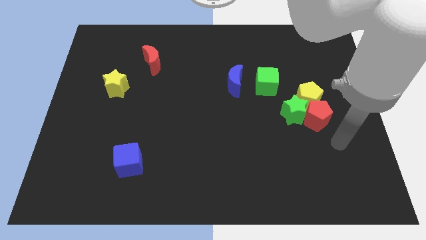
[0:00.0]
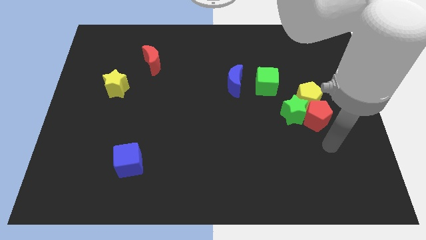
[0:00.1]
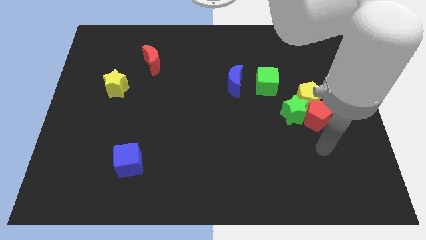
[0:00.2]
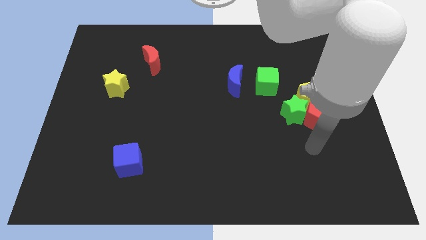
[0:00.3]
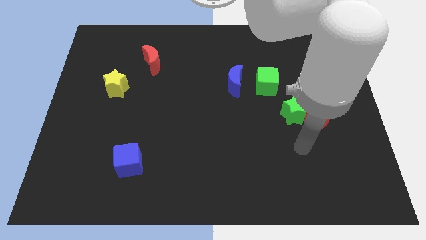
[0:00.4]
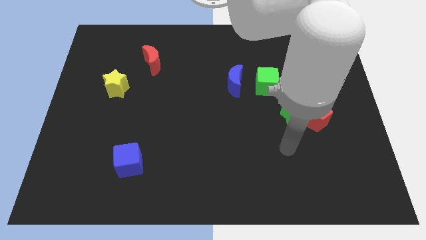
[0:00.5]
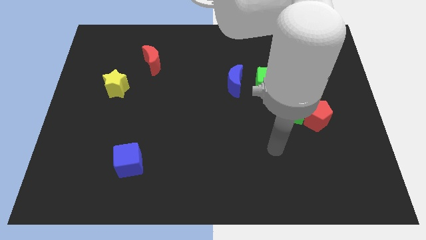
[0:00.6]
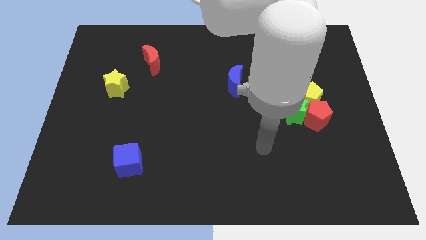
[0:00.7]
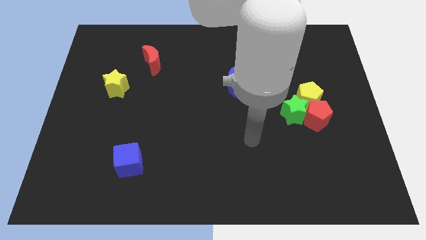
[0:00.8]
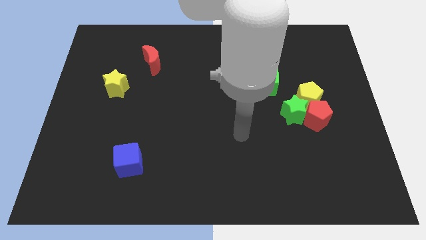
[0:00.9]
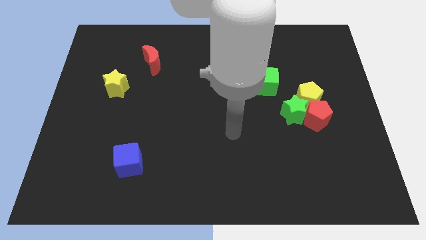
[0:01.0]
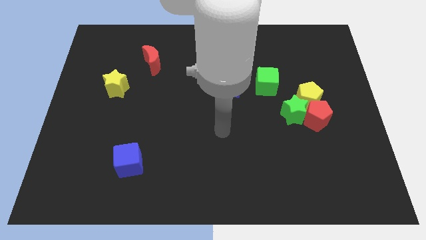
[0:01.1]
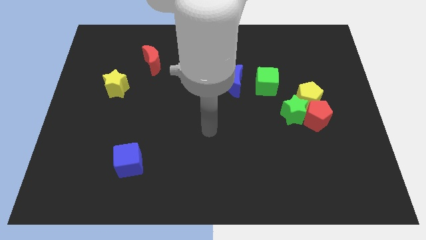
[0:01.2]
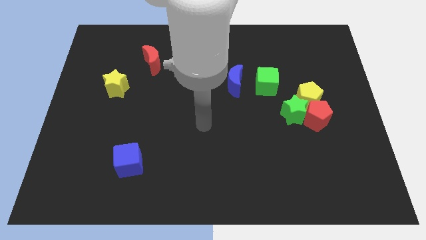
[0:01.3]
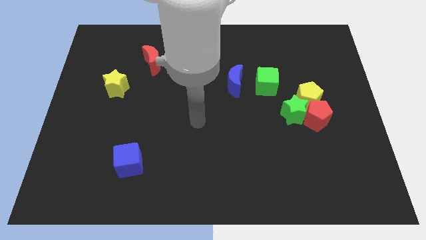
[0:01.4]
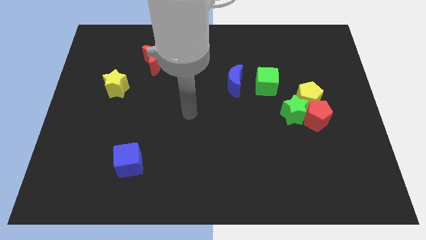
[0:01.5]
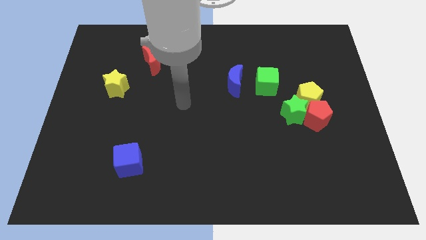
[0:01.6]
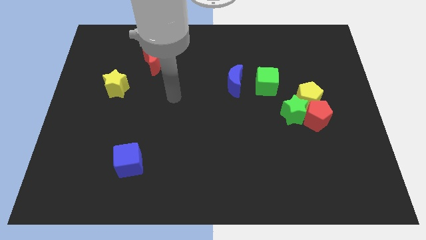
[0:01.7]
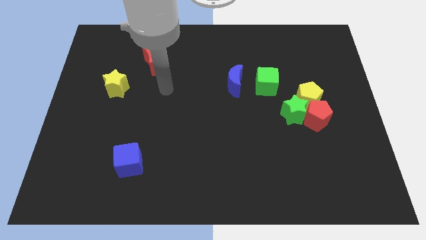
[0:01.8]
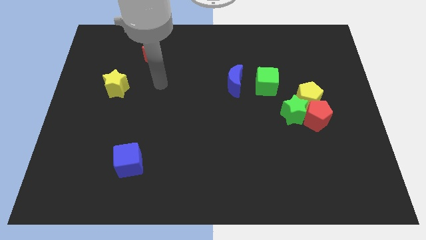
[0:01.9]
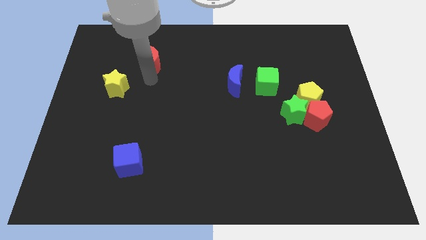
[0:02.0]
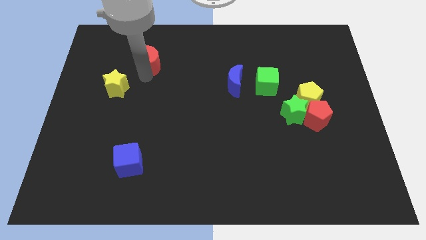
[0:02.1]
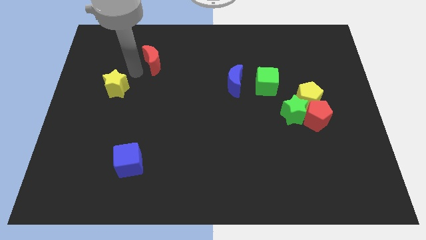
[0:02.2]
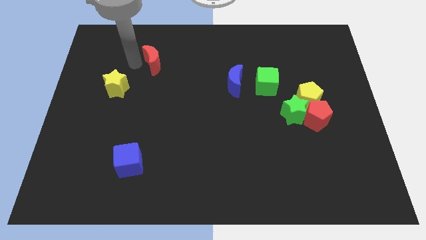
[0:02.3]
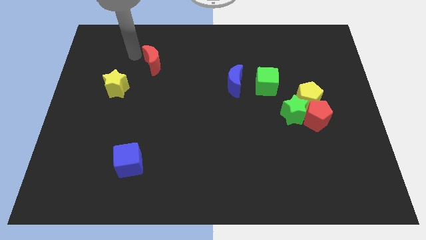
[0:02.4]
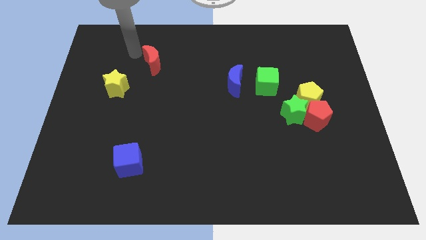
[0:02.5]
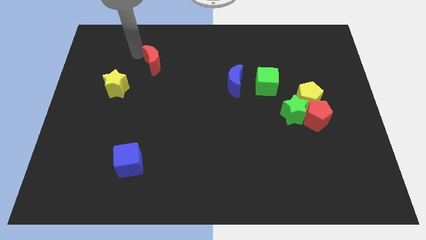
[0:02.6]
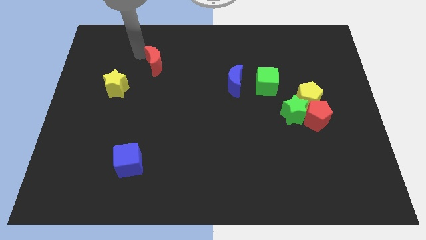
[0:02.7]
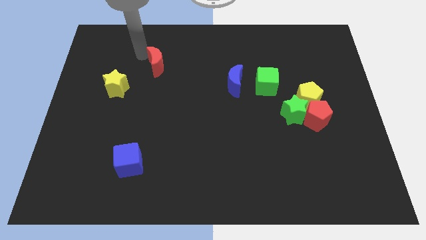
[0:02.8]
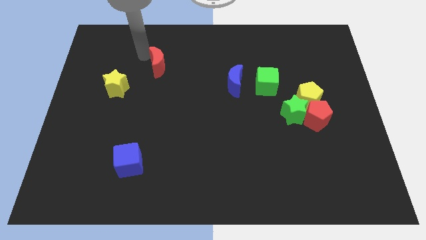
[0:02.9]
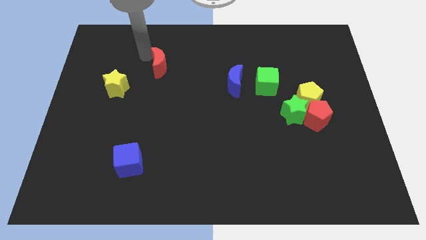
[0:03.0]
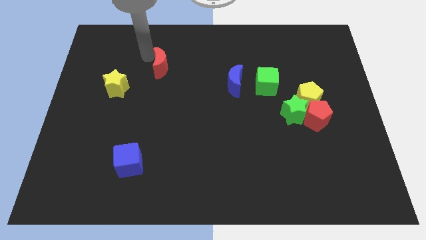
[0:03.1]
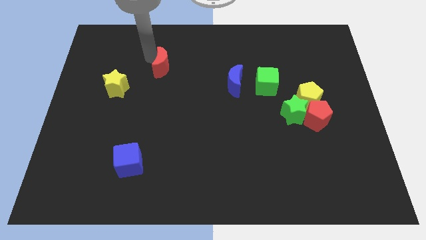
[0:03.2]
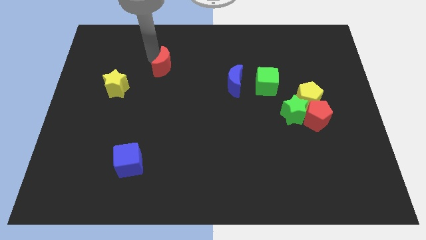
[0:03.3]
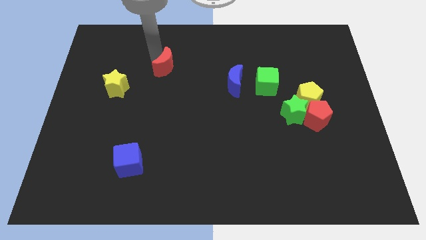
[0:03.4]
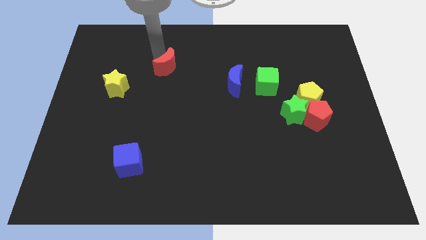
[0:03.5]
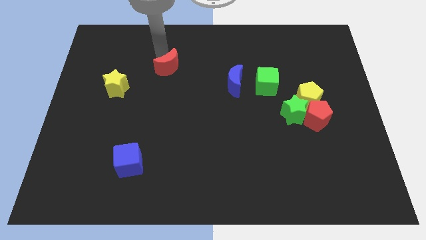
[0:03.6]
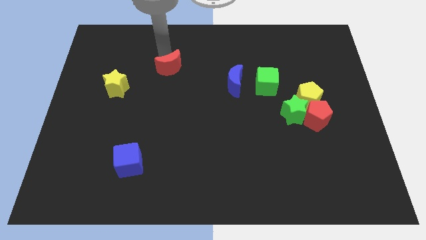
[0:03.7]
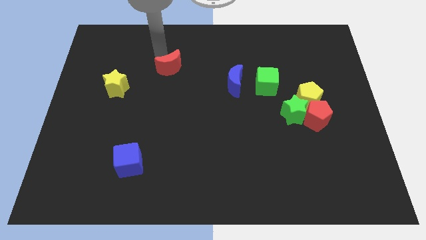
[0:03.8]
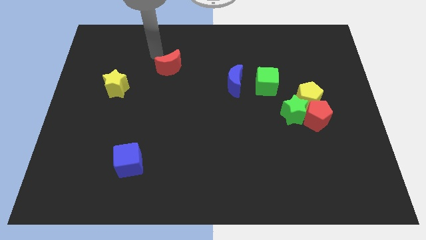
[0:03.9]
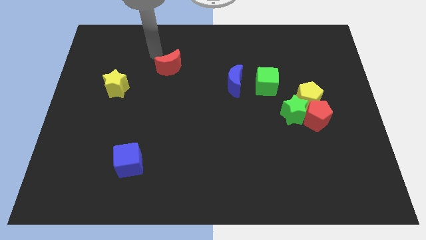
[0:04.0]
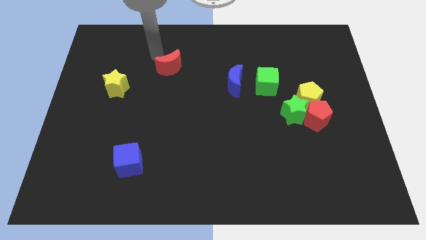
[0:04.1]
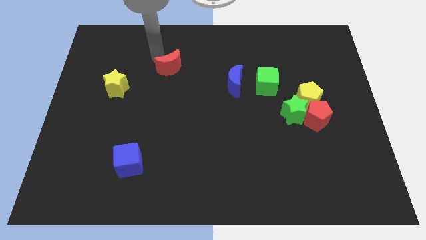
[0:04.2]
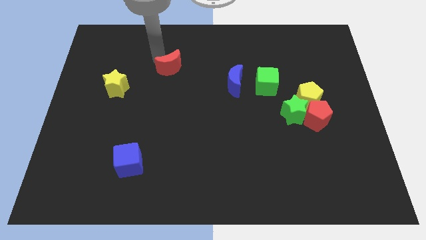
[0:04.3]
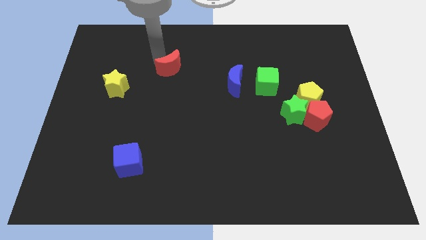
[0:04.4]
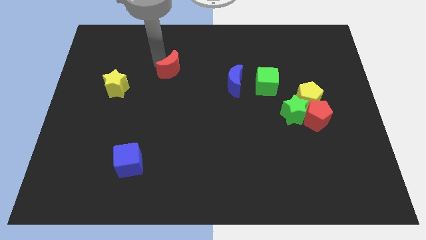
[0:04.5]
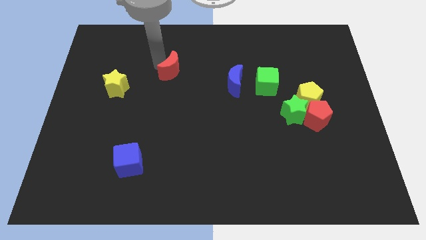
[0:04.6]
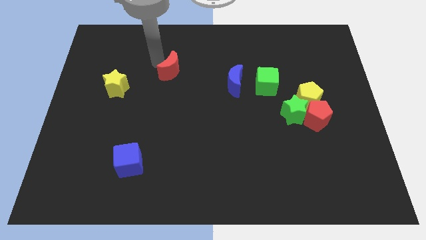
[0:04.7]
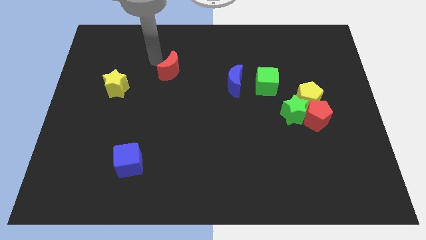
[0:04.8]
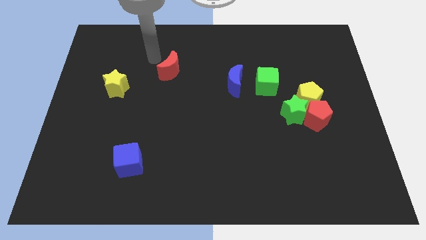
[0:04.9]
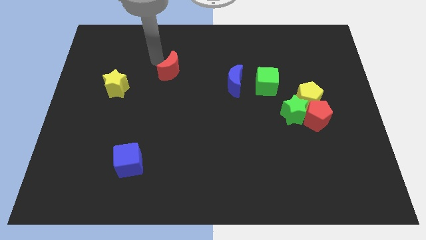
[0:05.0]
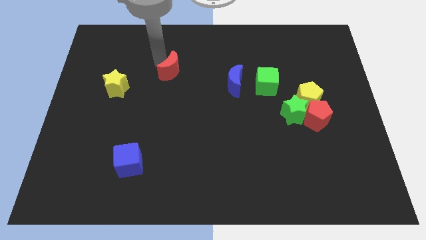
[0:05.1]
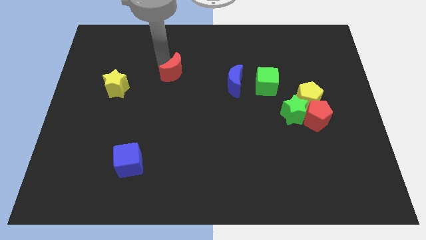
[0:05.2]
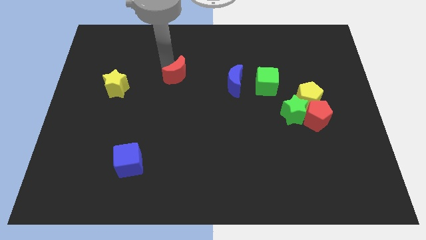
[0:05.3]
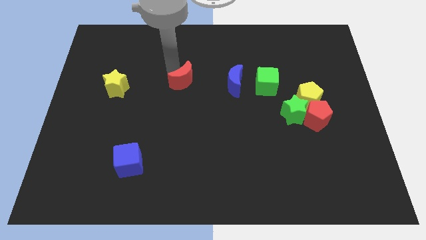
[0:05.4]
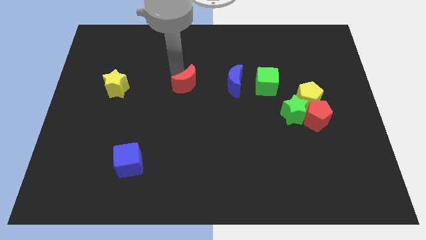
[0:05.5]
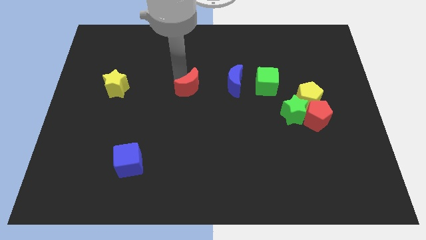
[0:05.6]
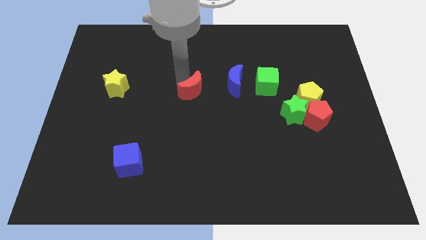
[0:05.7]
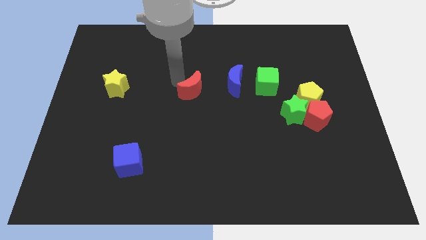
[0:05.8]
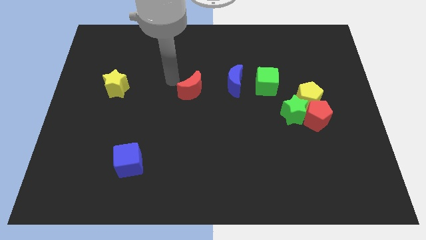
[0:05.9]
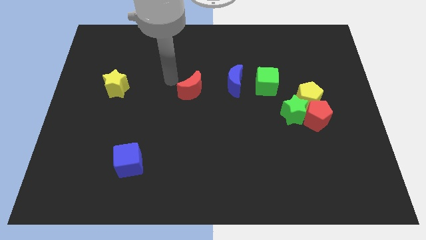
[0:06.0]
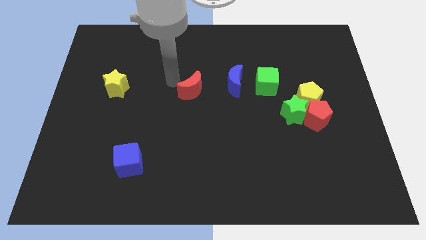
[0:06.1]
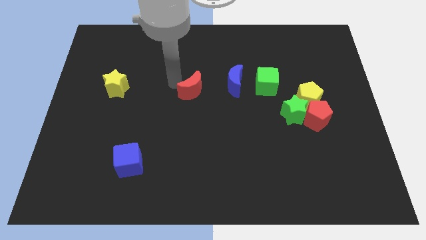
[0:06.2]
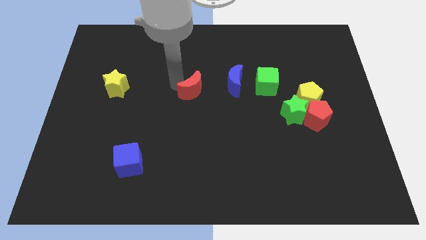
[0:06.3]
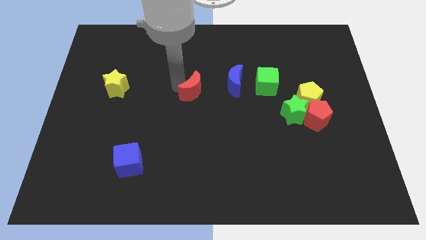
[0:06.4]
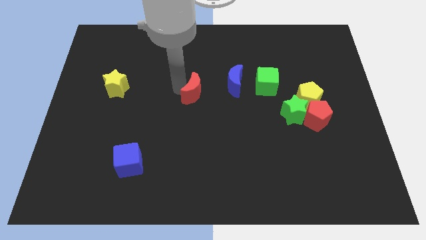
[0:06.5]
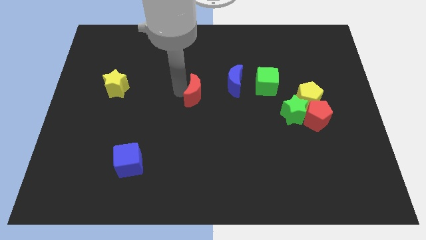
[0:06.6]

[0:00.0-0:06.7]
put the red moon to the bottom left of the blue moon
